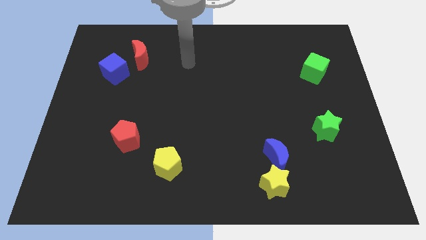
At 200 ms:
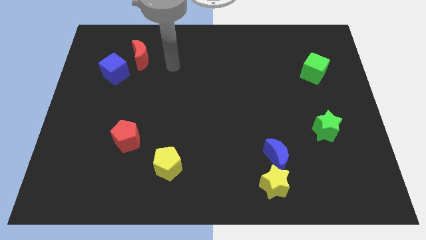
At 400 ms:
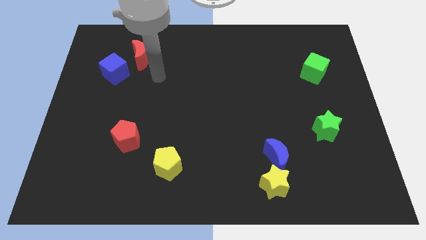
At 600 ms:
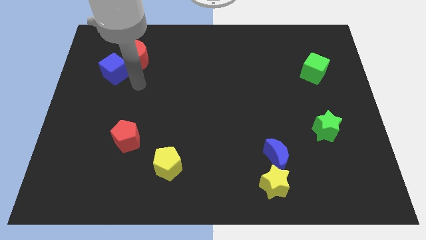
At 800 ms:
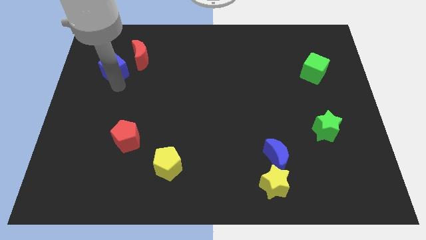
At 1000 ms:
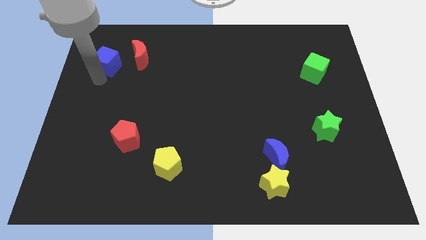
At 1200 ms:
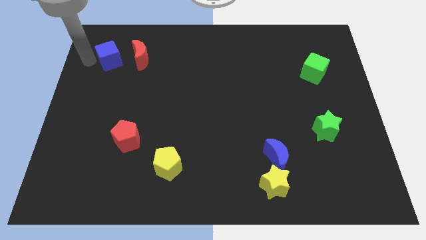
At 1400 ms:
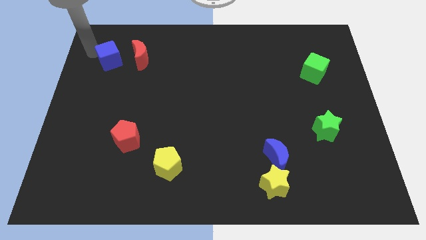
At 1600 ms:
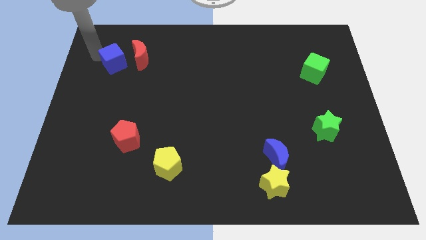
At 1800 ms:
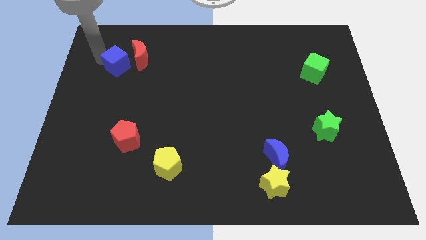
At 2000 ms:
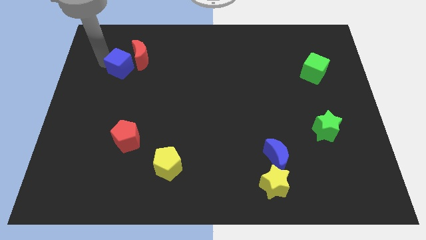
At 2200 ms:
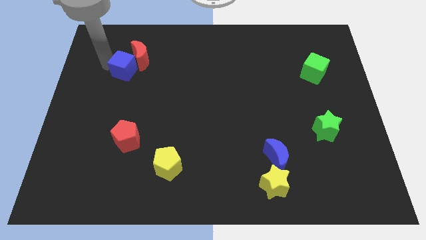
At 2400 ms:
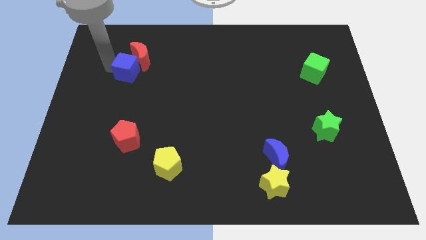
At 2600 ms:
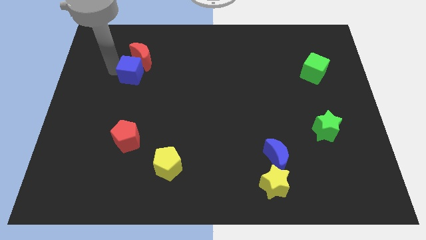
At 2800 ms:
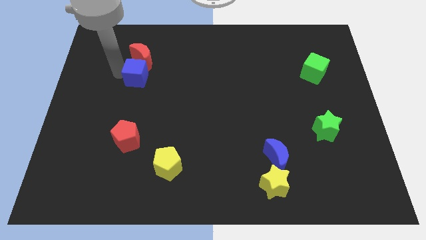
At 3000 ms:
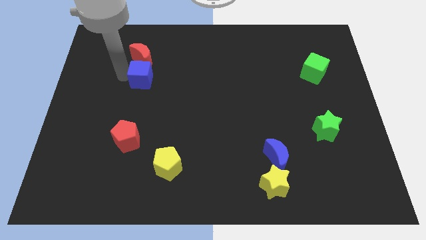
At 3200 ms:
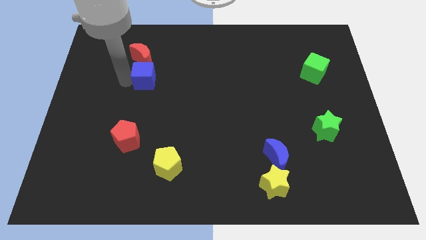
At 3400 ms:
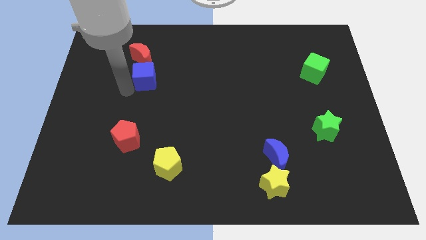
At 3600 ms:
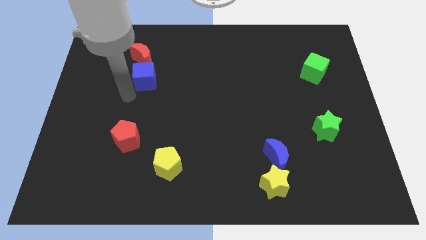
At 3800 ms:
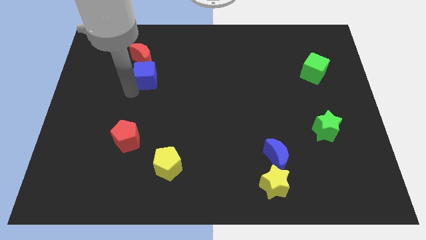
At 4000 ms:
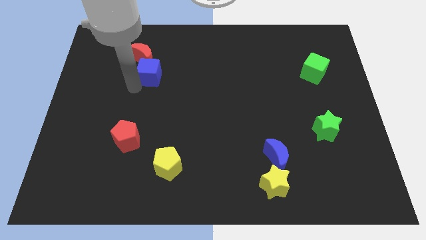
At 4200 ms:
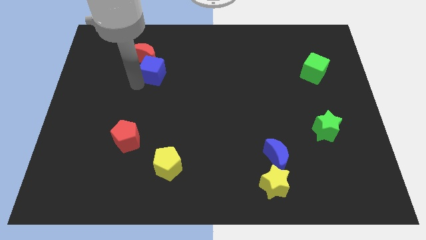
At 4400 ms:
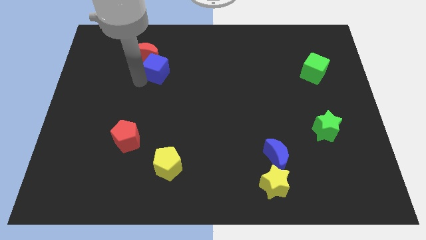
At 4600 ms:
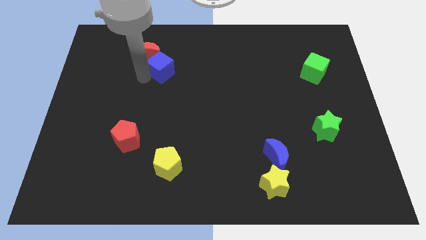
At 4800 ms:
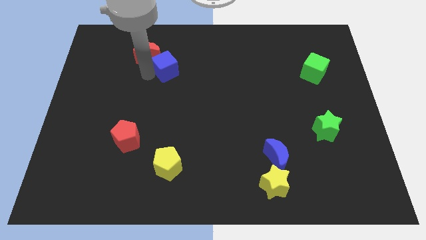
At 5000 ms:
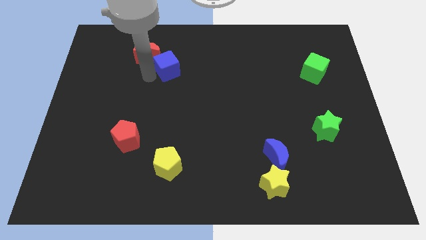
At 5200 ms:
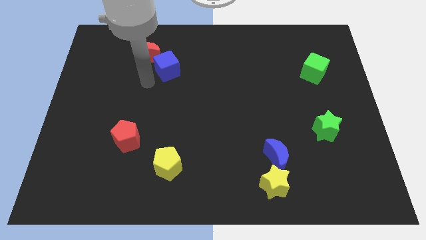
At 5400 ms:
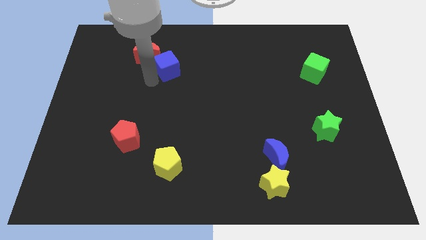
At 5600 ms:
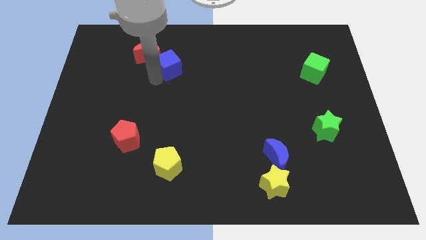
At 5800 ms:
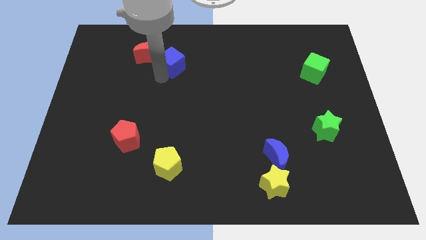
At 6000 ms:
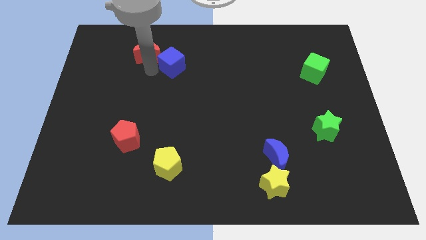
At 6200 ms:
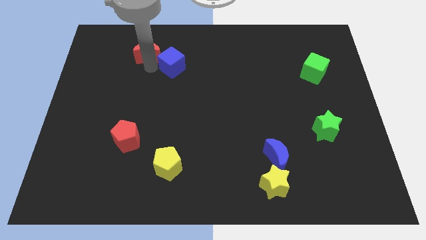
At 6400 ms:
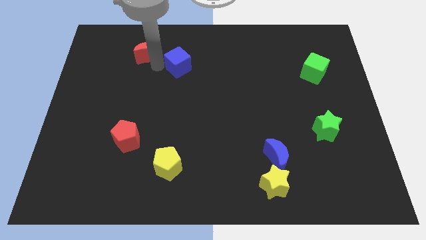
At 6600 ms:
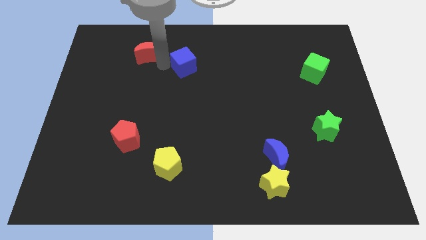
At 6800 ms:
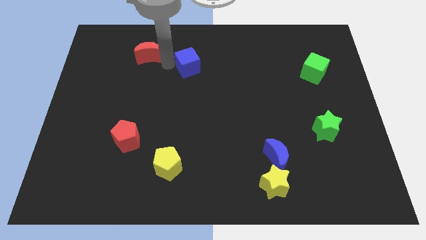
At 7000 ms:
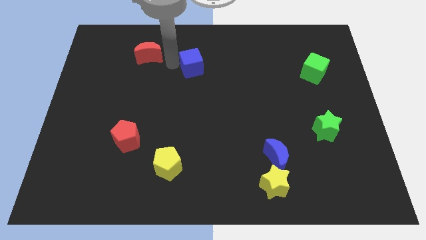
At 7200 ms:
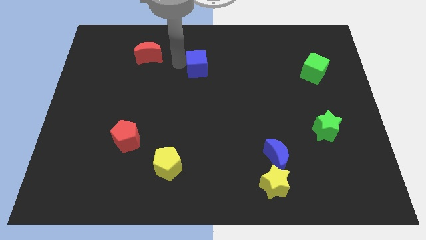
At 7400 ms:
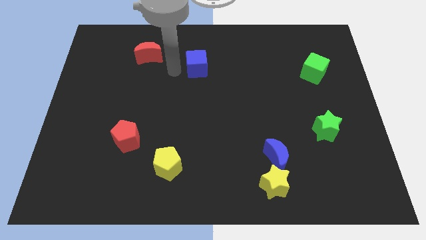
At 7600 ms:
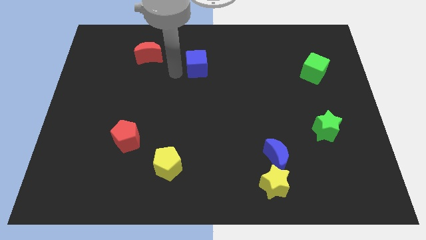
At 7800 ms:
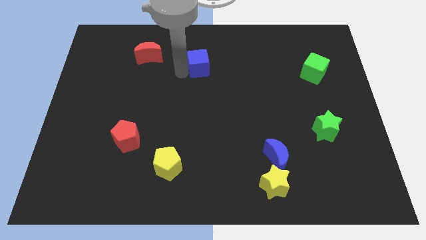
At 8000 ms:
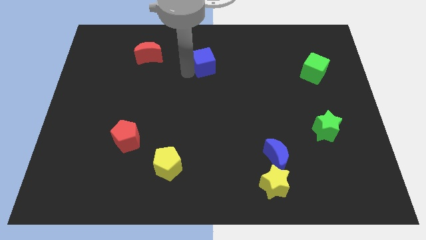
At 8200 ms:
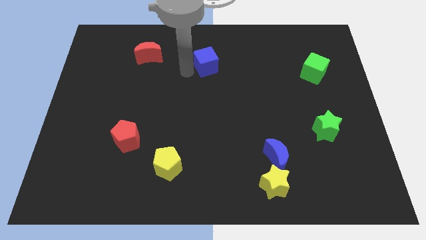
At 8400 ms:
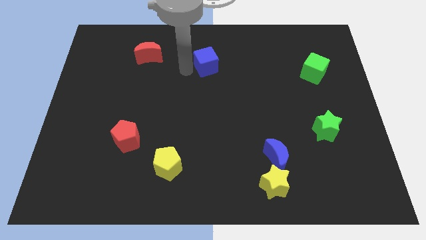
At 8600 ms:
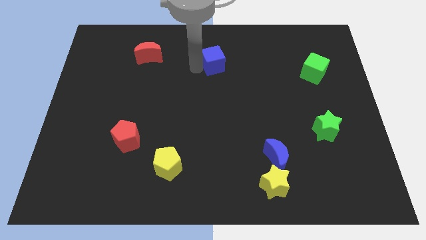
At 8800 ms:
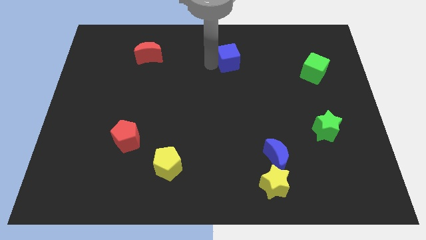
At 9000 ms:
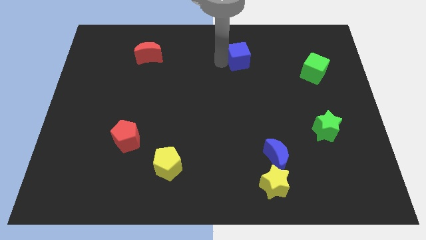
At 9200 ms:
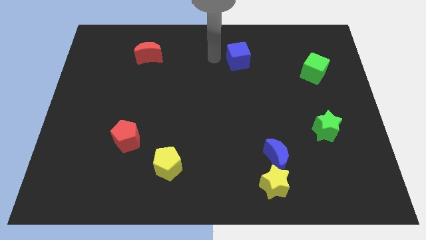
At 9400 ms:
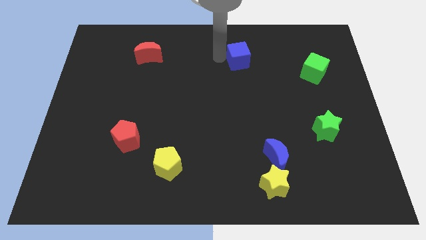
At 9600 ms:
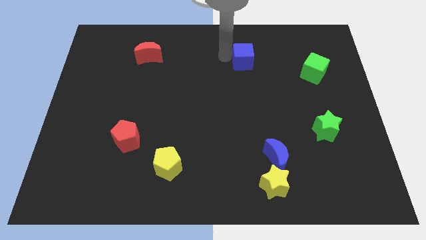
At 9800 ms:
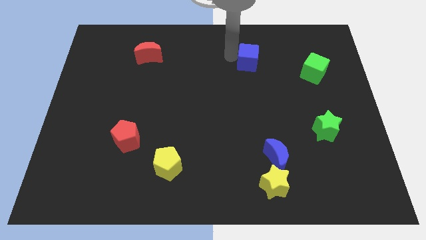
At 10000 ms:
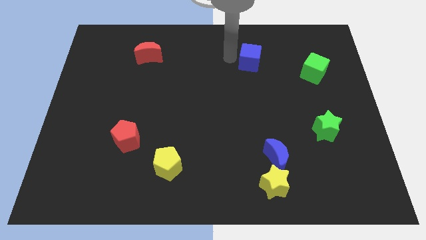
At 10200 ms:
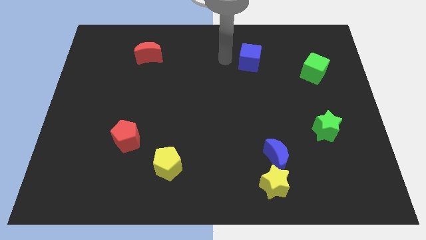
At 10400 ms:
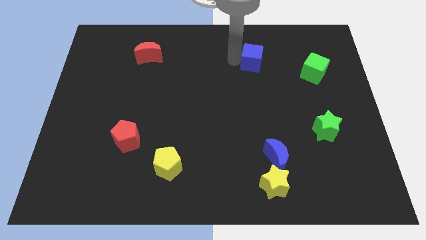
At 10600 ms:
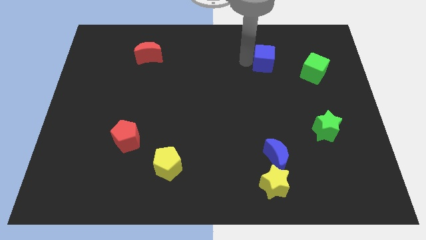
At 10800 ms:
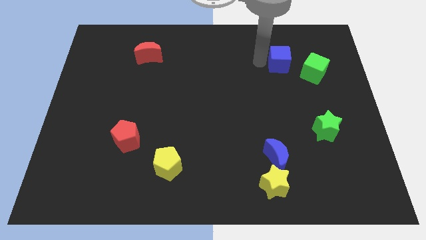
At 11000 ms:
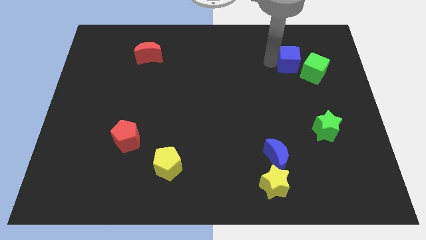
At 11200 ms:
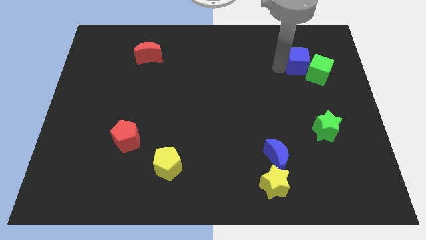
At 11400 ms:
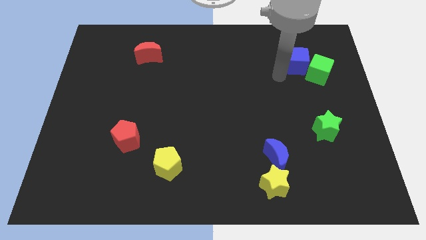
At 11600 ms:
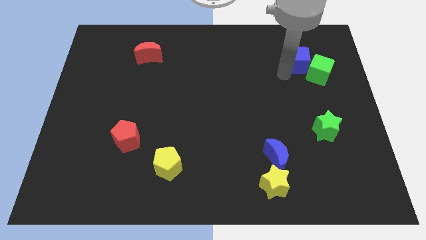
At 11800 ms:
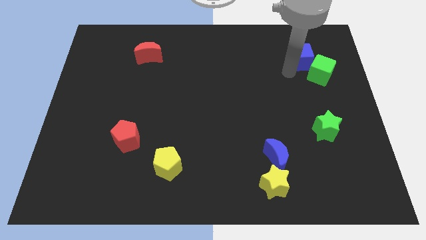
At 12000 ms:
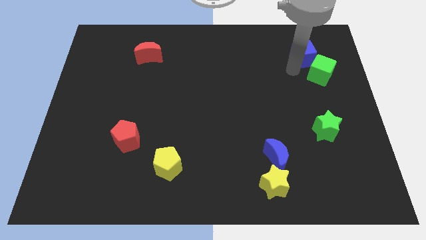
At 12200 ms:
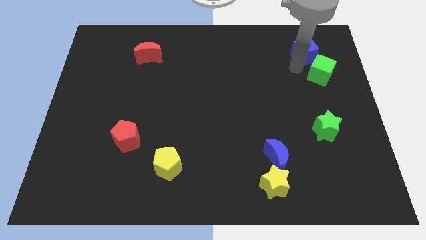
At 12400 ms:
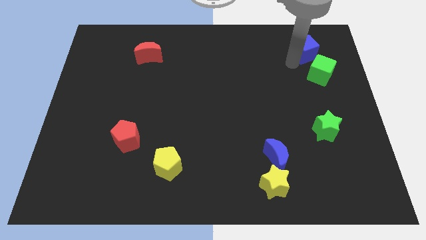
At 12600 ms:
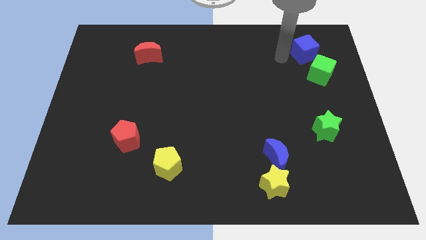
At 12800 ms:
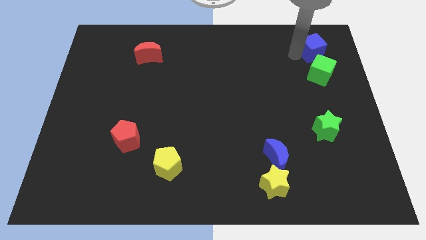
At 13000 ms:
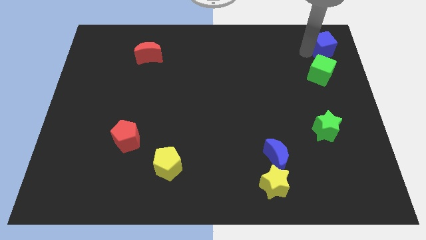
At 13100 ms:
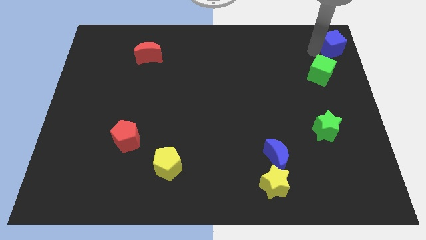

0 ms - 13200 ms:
put the blue cube to the upper right corner
